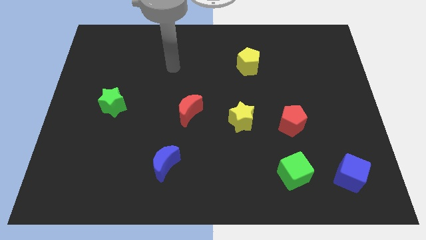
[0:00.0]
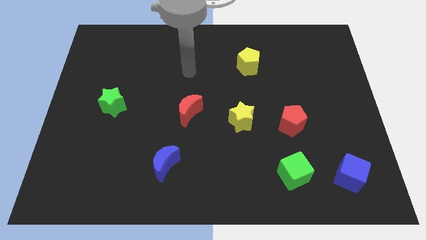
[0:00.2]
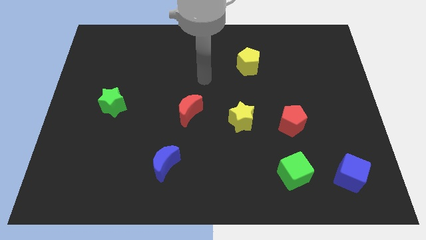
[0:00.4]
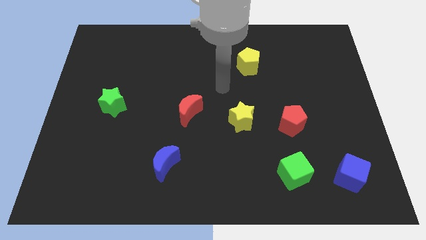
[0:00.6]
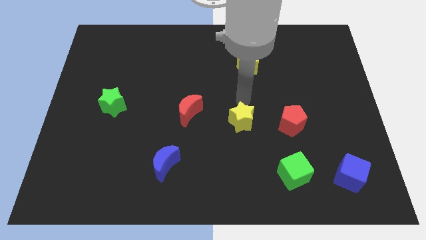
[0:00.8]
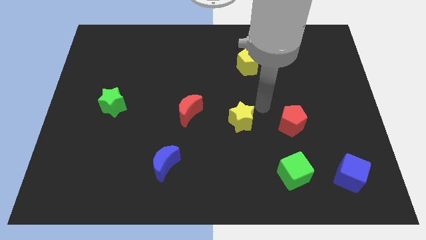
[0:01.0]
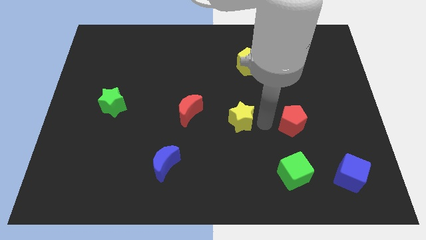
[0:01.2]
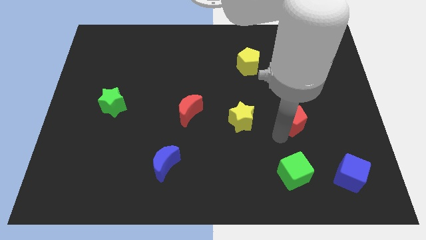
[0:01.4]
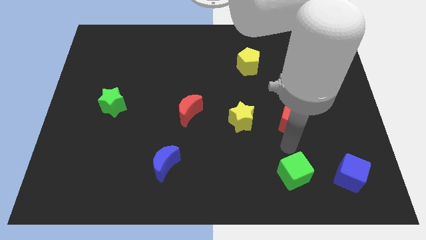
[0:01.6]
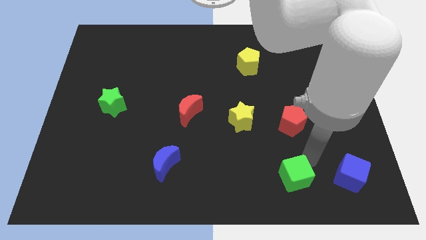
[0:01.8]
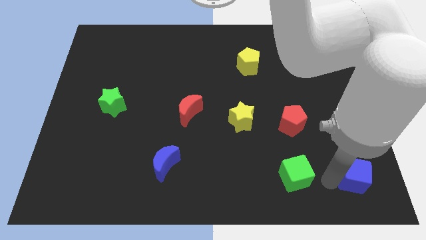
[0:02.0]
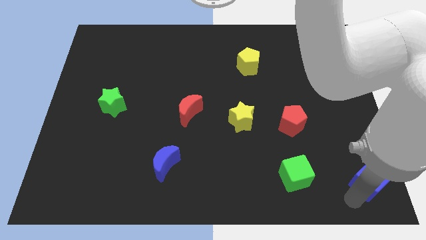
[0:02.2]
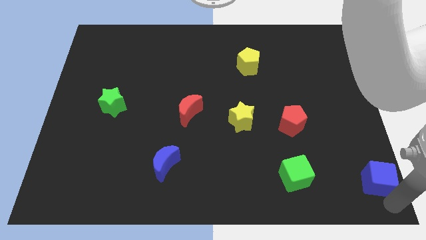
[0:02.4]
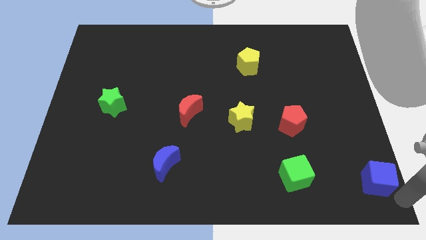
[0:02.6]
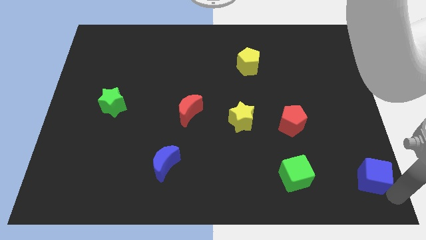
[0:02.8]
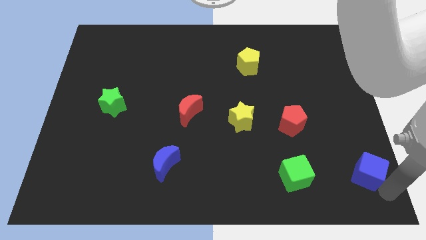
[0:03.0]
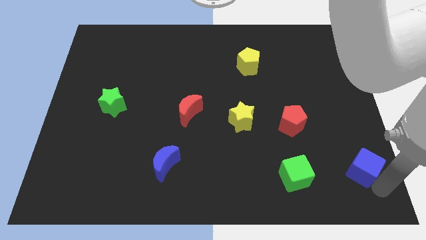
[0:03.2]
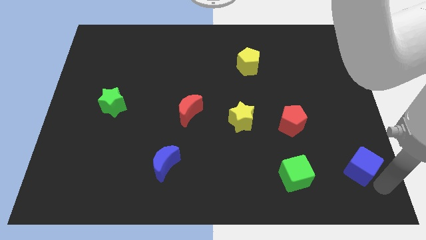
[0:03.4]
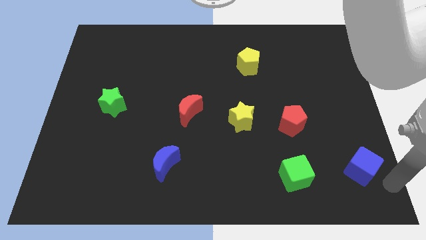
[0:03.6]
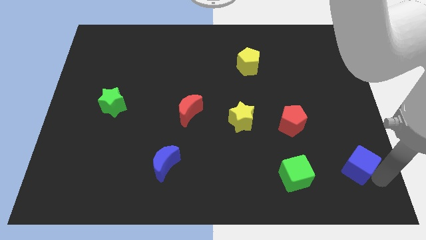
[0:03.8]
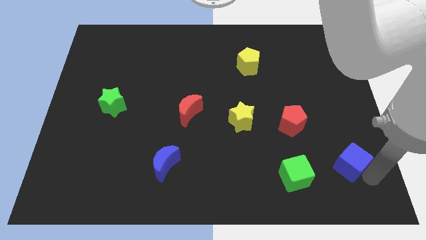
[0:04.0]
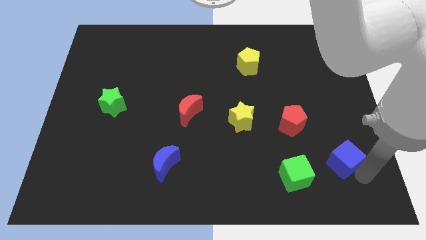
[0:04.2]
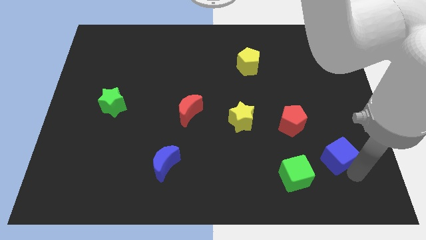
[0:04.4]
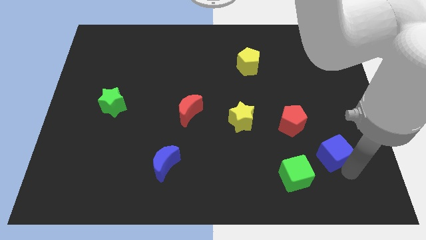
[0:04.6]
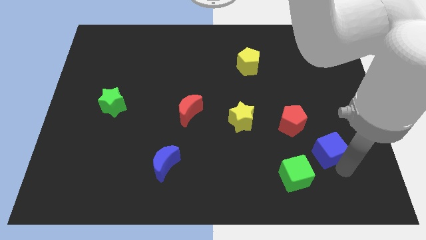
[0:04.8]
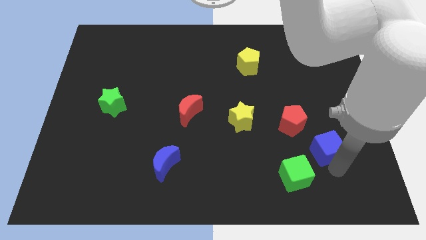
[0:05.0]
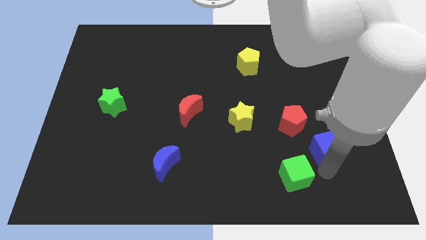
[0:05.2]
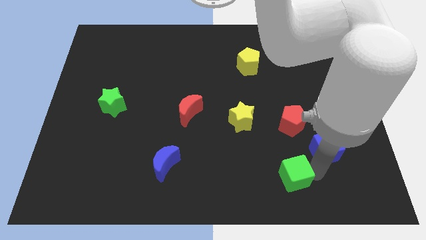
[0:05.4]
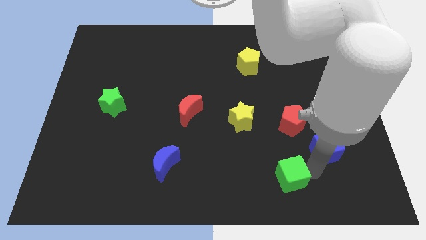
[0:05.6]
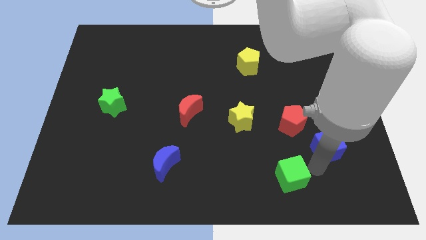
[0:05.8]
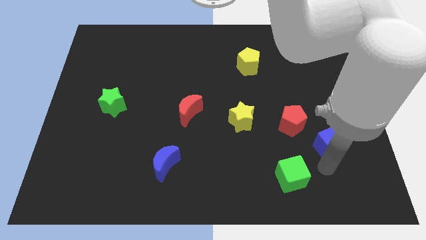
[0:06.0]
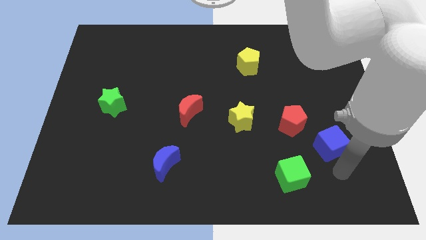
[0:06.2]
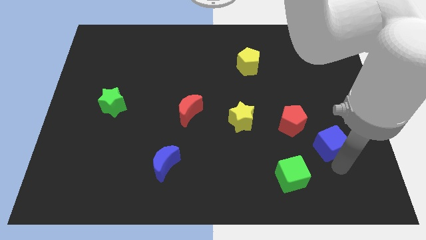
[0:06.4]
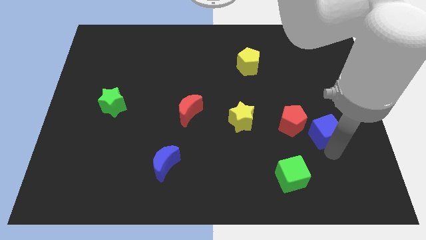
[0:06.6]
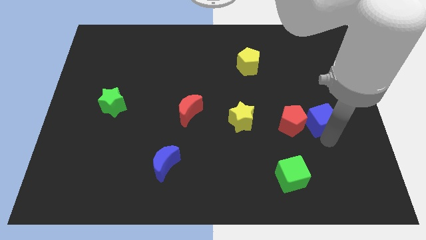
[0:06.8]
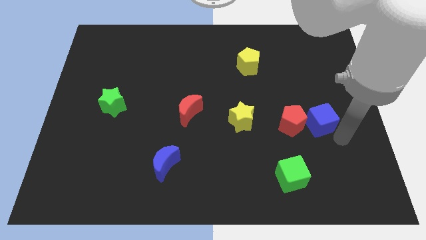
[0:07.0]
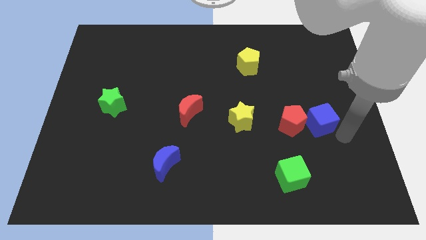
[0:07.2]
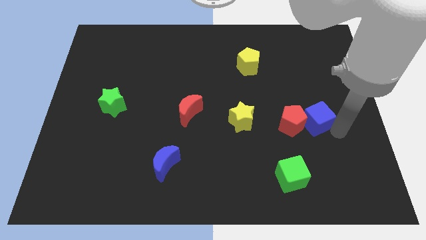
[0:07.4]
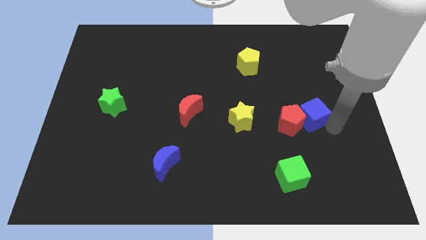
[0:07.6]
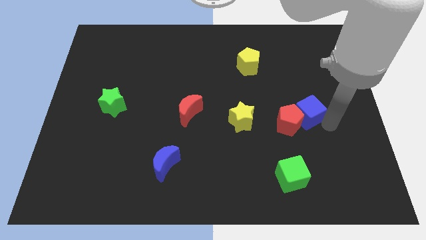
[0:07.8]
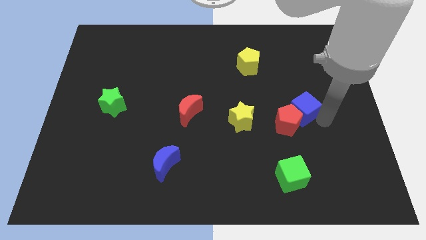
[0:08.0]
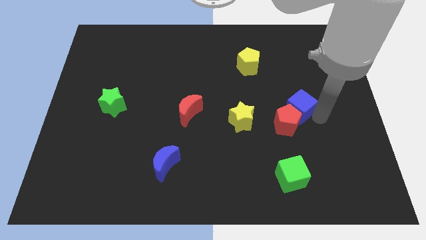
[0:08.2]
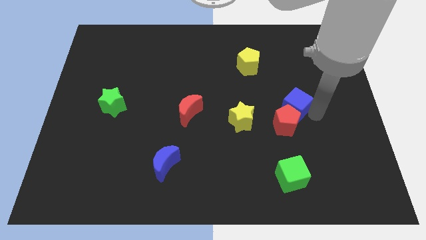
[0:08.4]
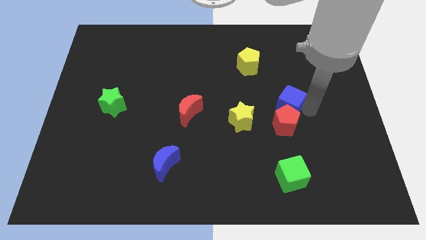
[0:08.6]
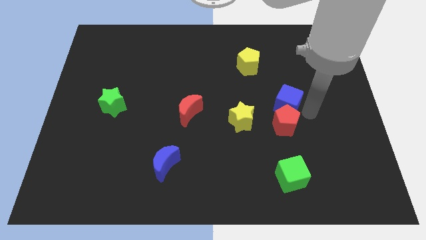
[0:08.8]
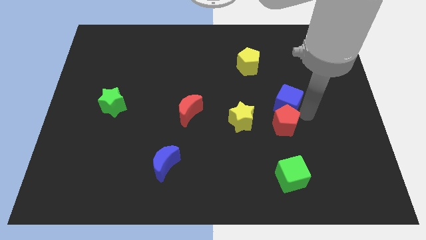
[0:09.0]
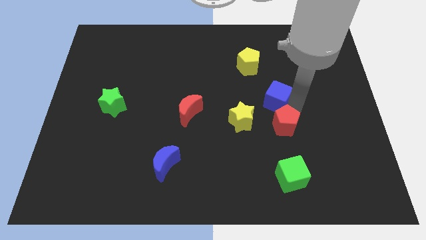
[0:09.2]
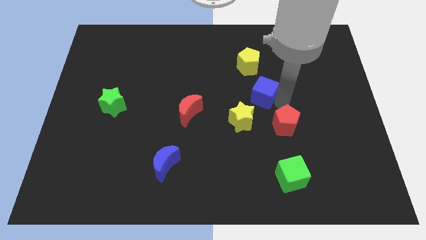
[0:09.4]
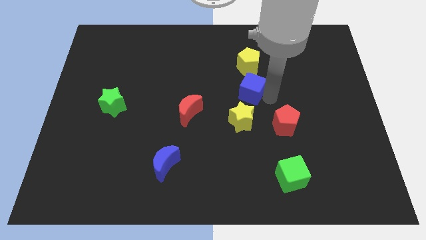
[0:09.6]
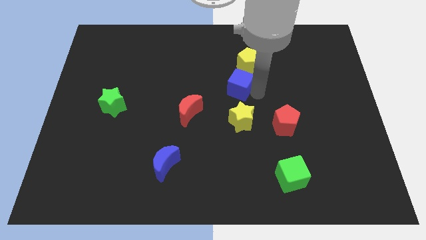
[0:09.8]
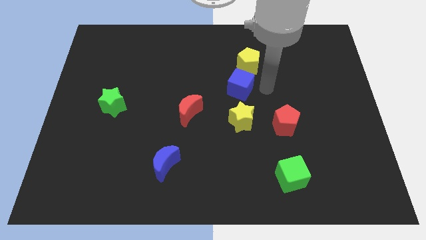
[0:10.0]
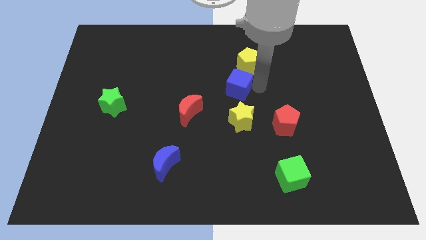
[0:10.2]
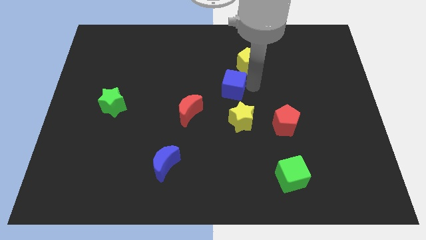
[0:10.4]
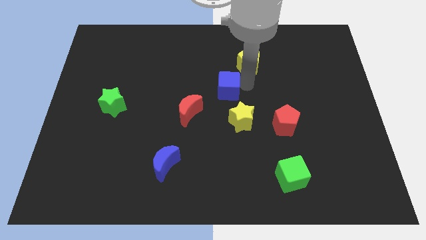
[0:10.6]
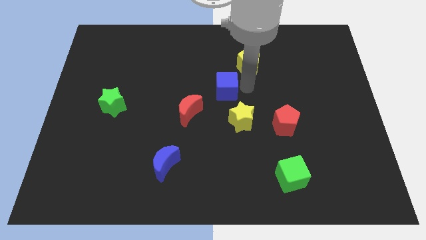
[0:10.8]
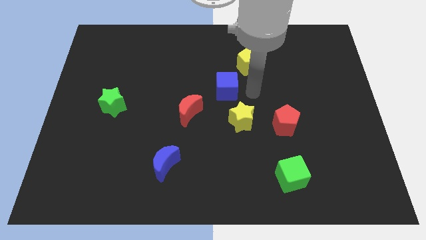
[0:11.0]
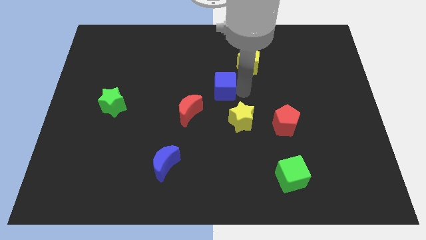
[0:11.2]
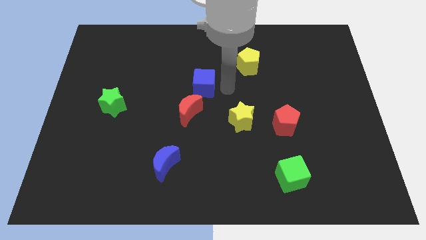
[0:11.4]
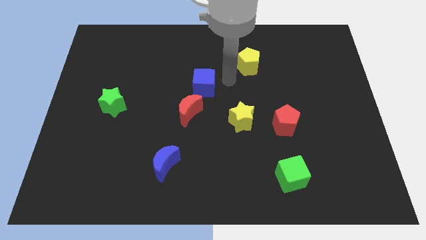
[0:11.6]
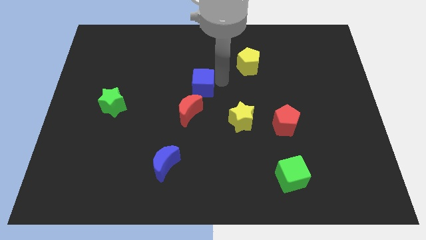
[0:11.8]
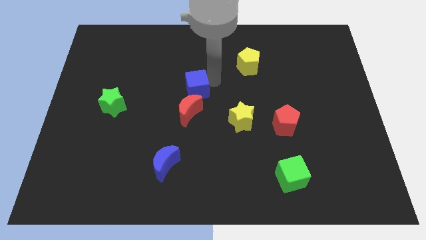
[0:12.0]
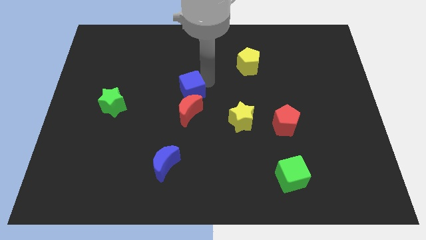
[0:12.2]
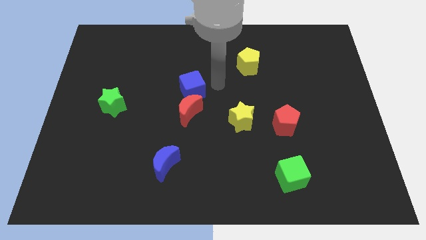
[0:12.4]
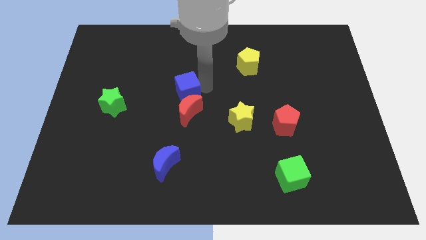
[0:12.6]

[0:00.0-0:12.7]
push the blue cube to the top left side of the red moon

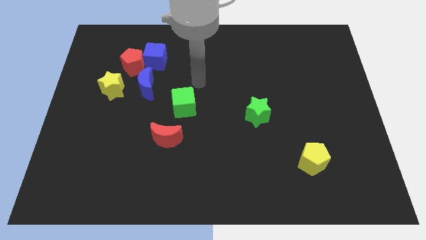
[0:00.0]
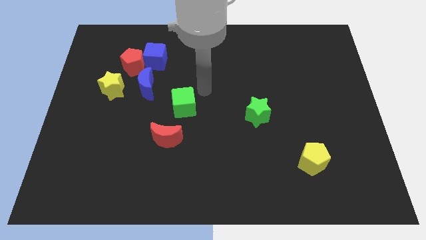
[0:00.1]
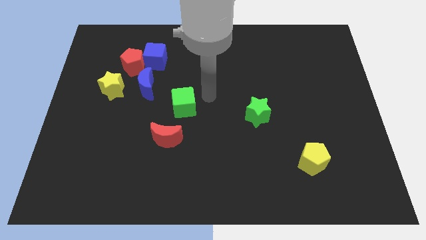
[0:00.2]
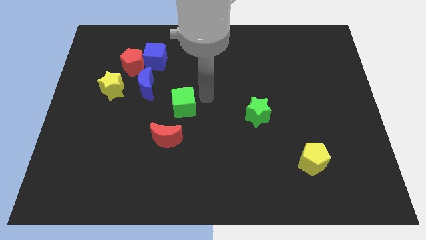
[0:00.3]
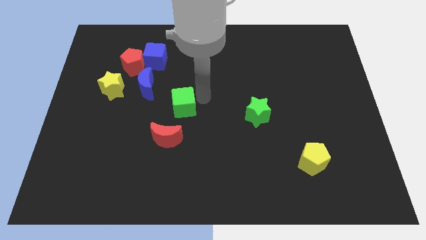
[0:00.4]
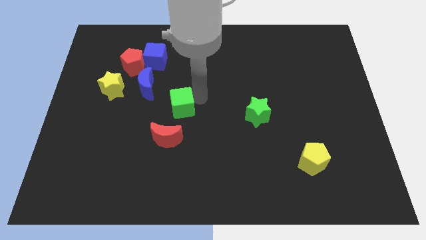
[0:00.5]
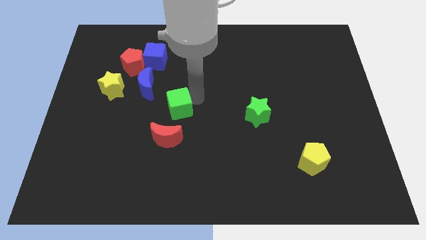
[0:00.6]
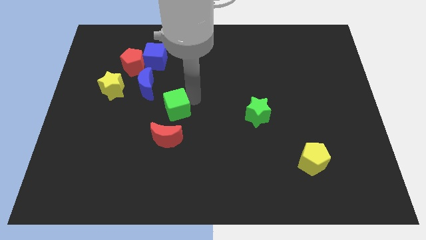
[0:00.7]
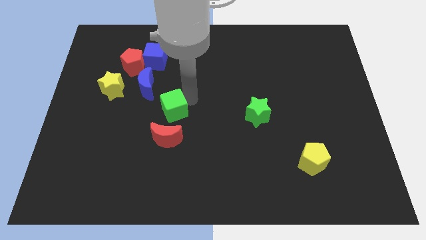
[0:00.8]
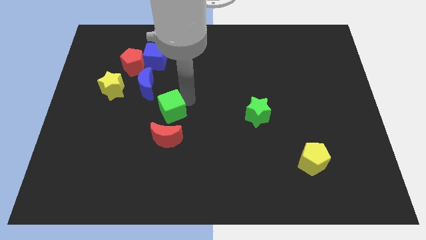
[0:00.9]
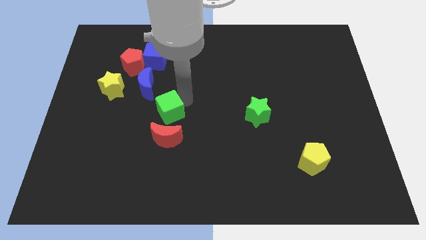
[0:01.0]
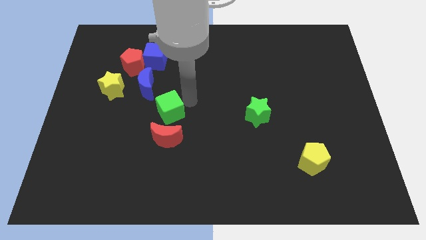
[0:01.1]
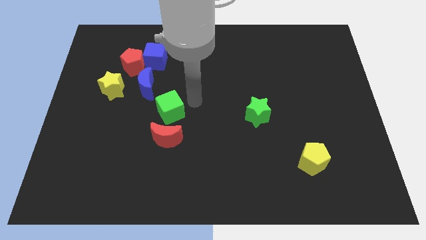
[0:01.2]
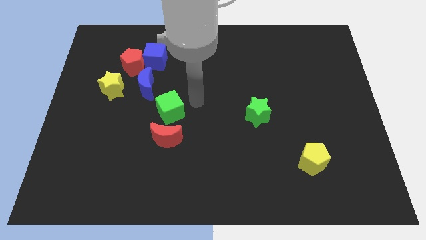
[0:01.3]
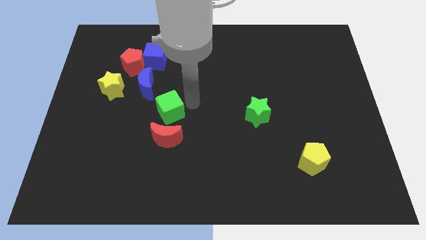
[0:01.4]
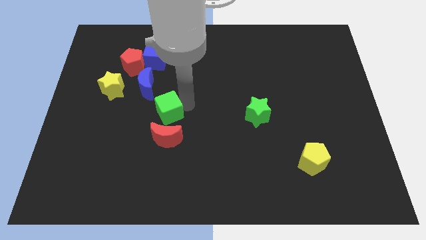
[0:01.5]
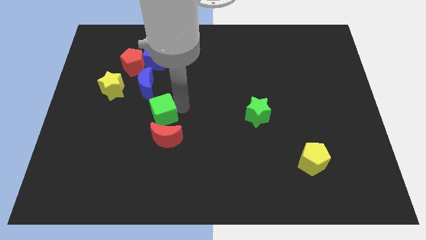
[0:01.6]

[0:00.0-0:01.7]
put the green cube to the bottom side of the blue moon
